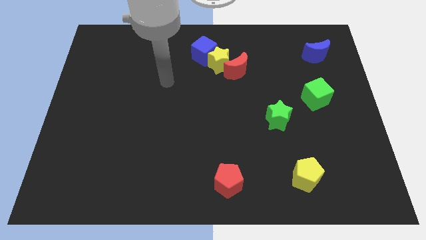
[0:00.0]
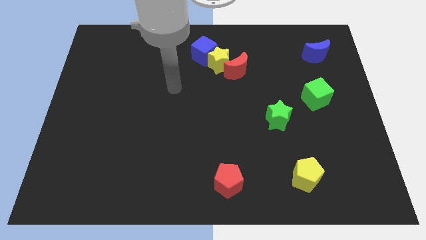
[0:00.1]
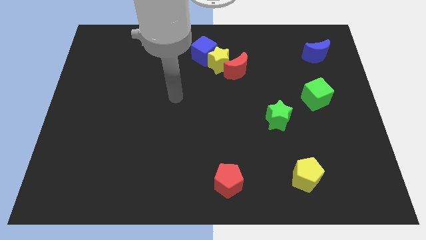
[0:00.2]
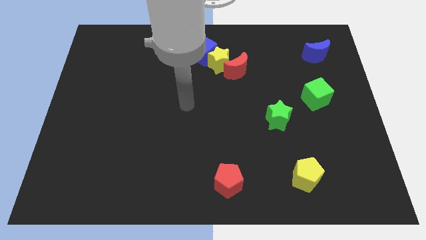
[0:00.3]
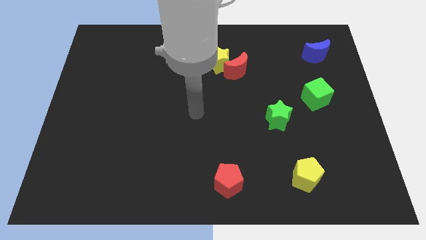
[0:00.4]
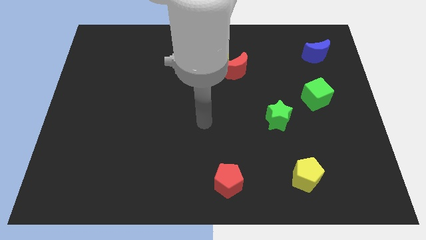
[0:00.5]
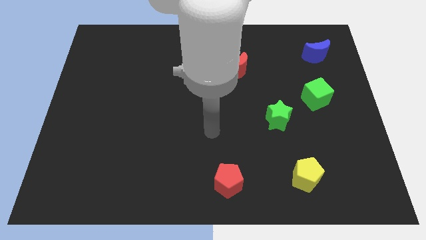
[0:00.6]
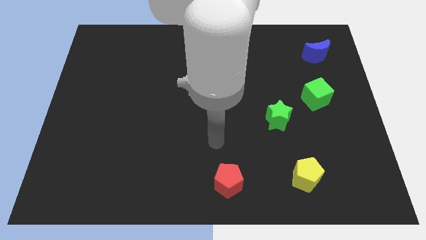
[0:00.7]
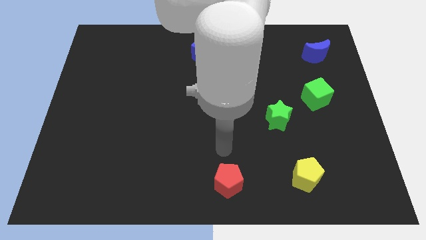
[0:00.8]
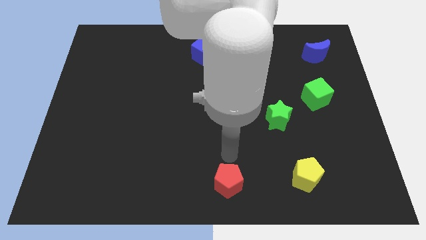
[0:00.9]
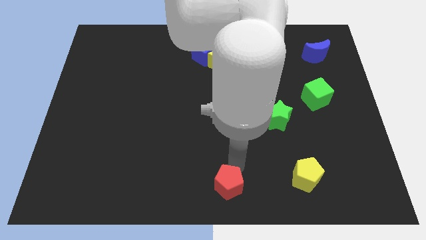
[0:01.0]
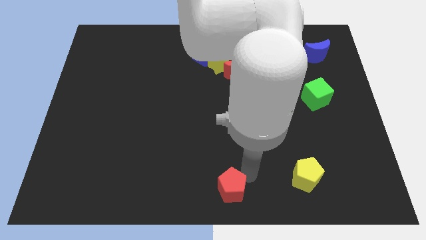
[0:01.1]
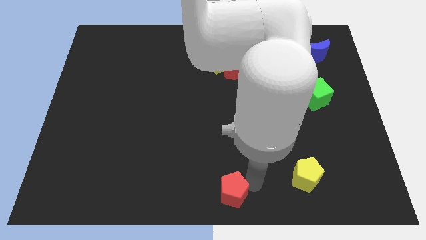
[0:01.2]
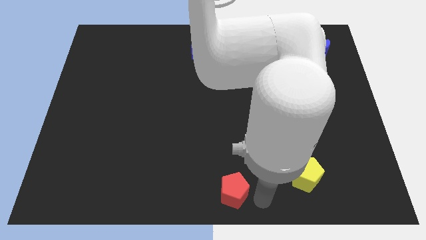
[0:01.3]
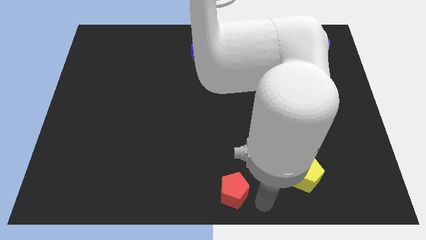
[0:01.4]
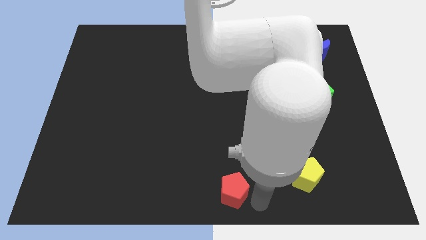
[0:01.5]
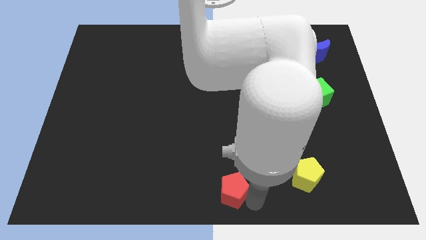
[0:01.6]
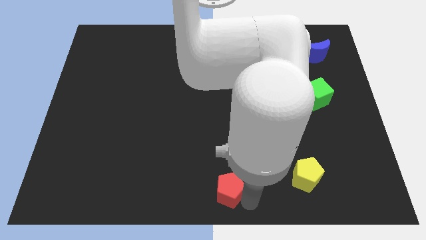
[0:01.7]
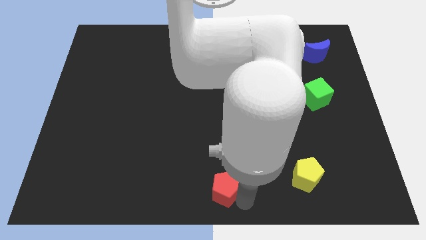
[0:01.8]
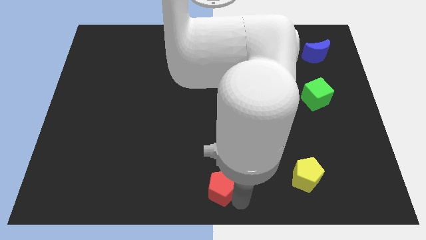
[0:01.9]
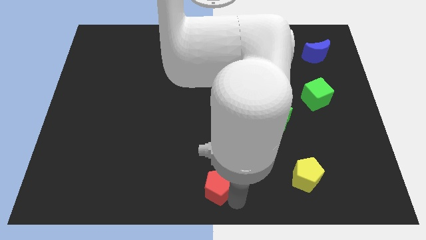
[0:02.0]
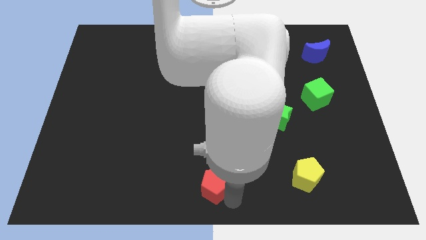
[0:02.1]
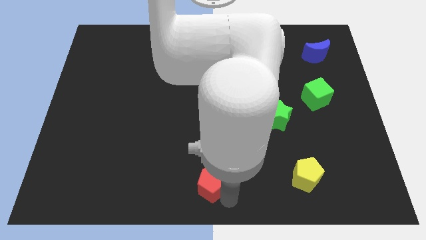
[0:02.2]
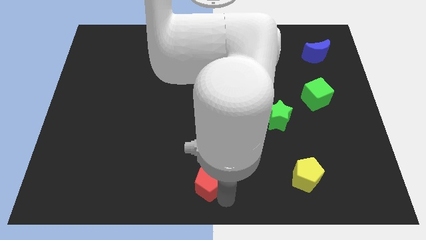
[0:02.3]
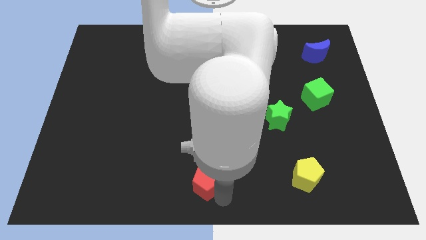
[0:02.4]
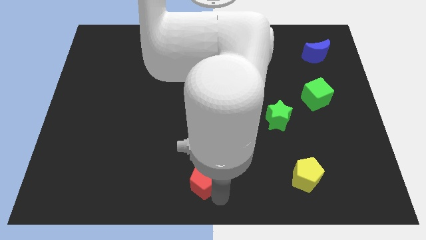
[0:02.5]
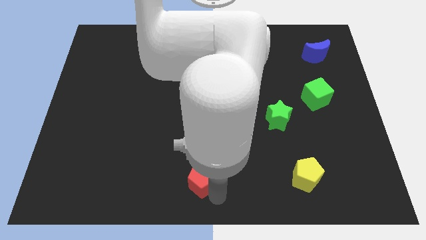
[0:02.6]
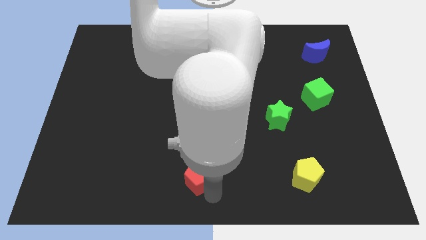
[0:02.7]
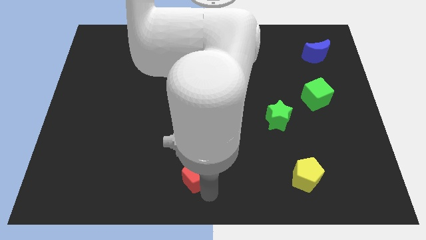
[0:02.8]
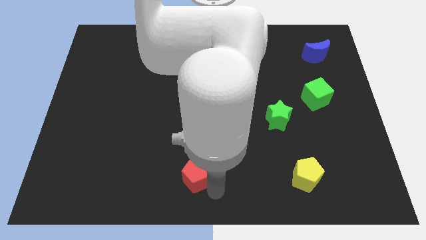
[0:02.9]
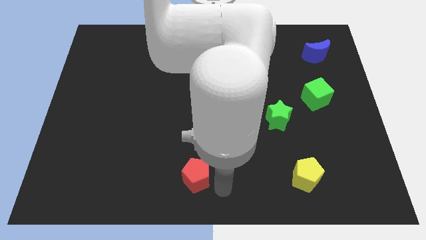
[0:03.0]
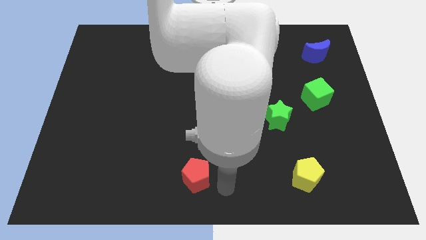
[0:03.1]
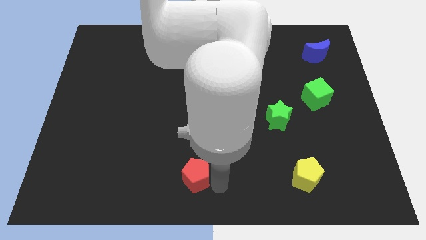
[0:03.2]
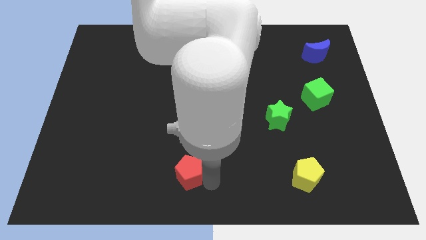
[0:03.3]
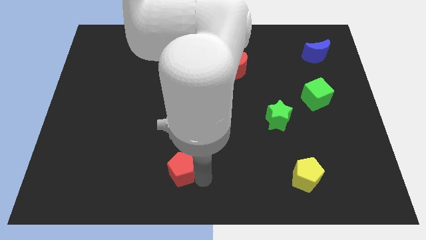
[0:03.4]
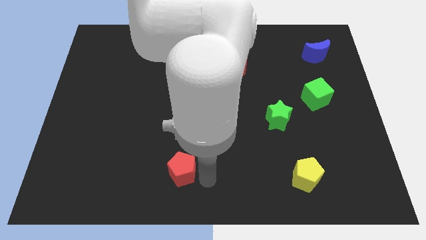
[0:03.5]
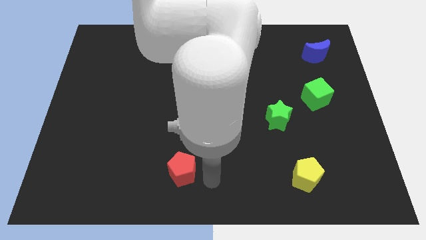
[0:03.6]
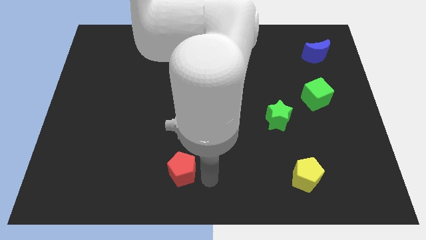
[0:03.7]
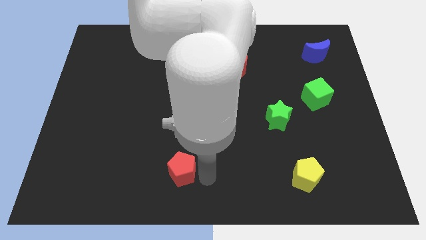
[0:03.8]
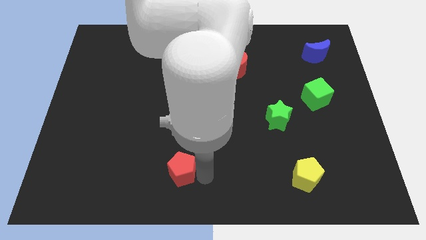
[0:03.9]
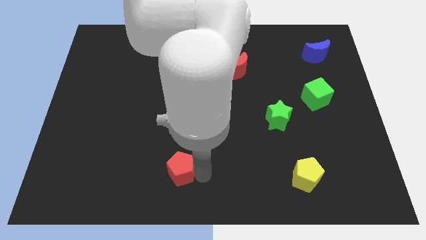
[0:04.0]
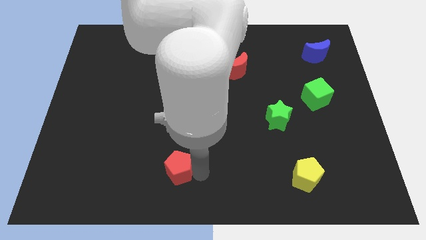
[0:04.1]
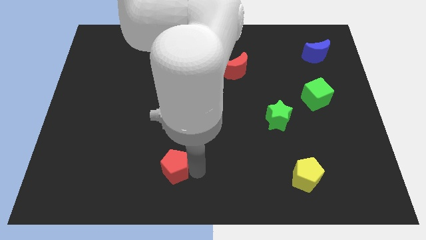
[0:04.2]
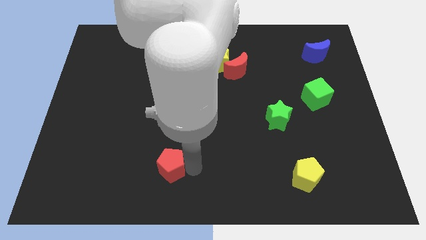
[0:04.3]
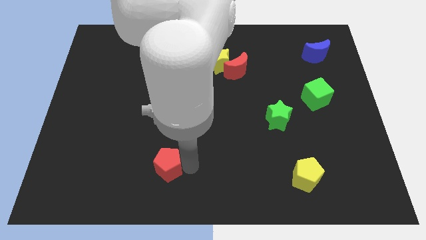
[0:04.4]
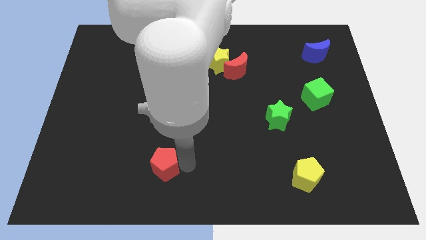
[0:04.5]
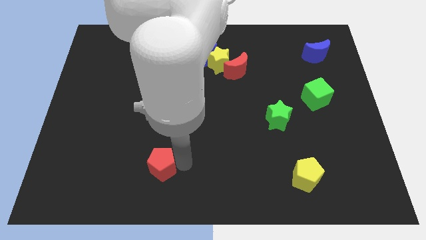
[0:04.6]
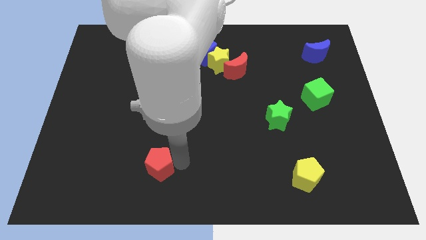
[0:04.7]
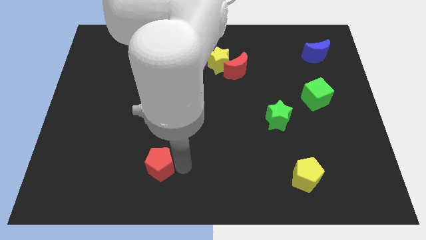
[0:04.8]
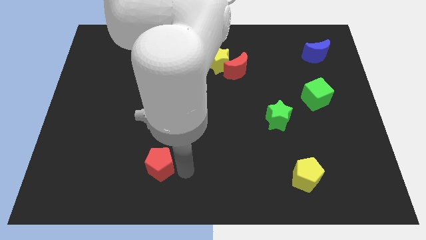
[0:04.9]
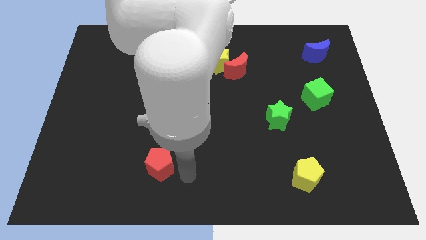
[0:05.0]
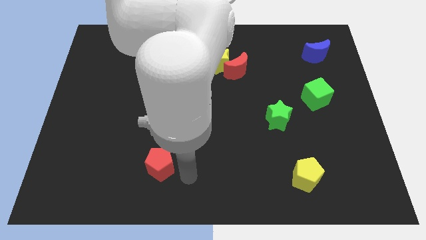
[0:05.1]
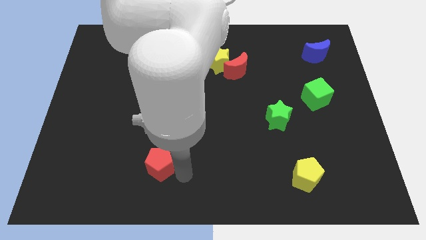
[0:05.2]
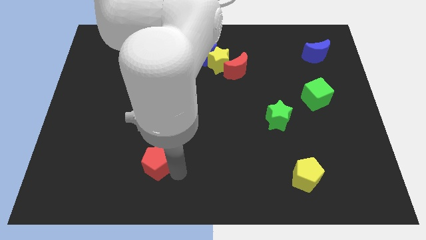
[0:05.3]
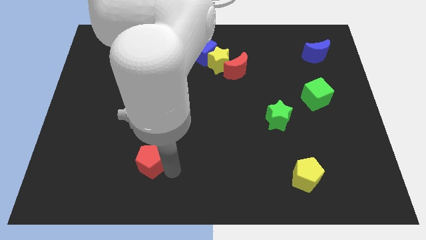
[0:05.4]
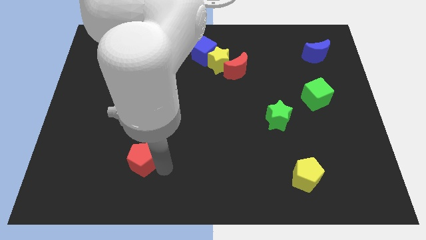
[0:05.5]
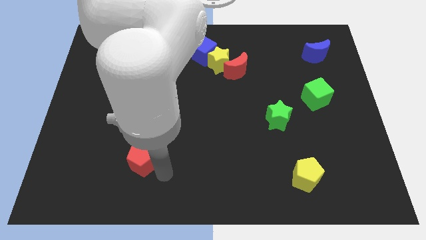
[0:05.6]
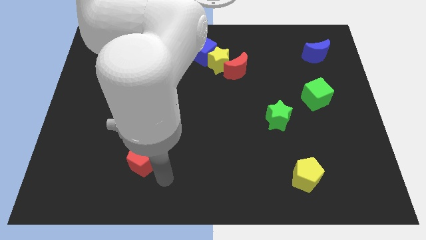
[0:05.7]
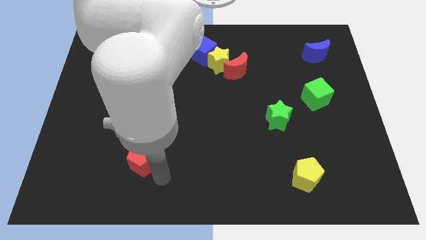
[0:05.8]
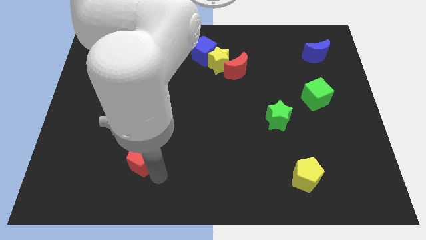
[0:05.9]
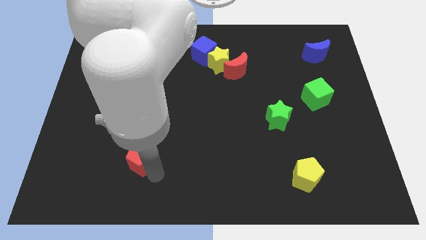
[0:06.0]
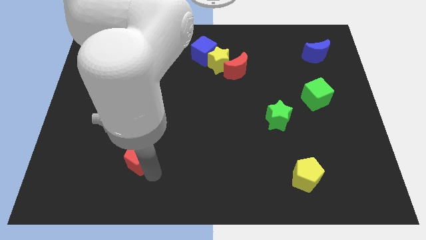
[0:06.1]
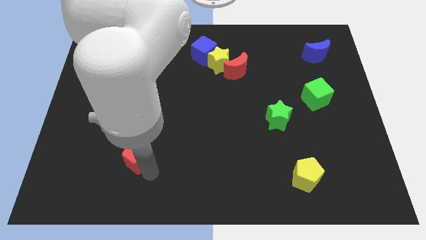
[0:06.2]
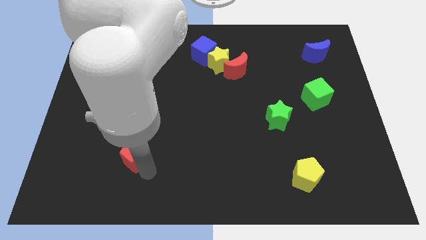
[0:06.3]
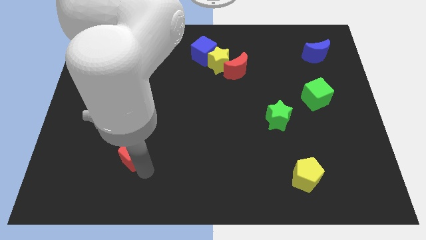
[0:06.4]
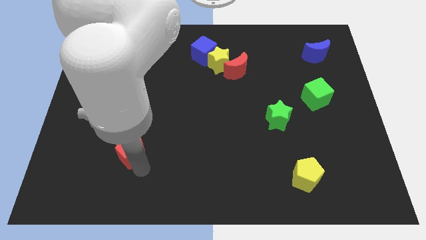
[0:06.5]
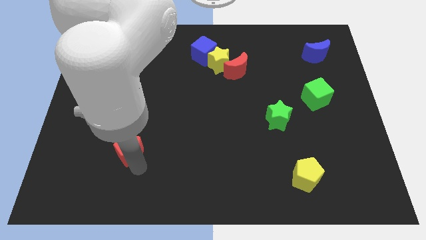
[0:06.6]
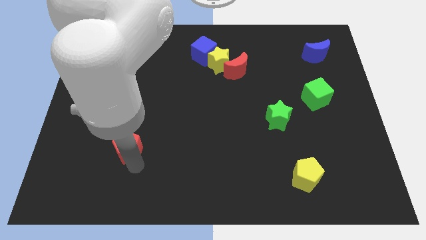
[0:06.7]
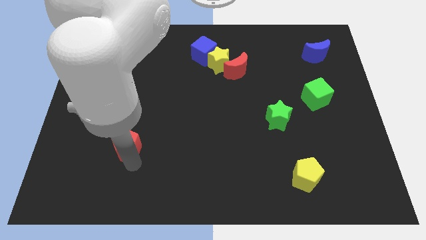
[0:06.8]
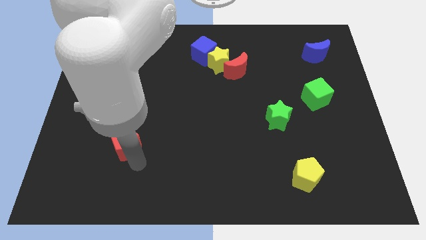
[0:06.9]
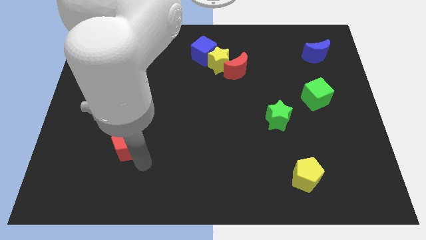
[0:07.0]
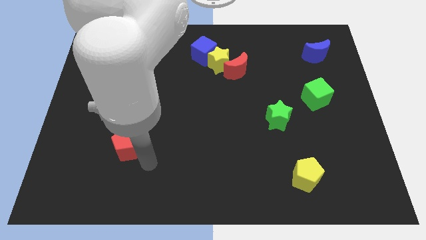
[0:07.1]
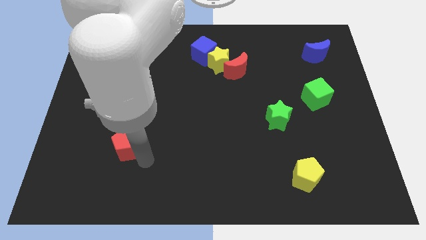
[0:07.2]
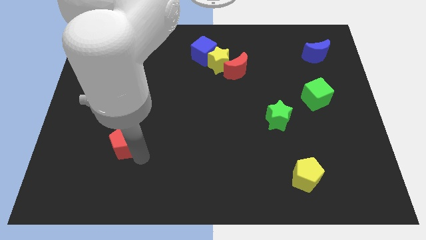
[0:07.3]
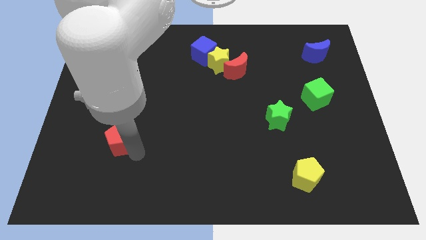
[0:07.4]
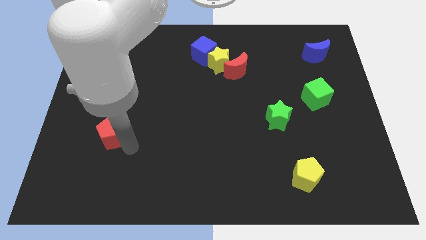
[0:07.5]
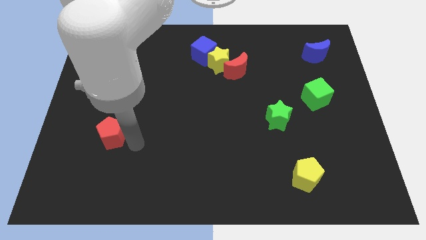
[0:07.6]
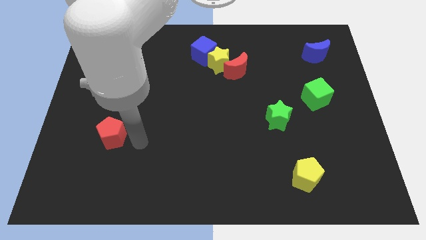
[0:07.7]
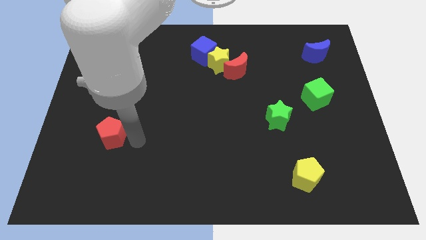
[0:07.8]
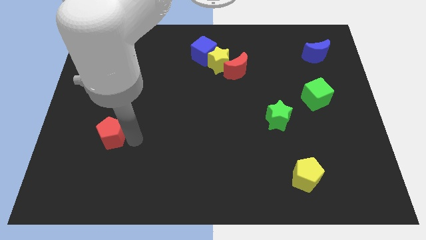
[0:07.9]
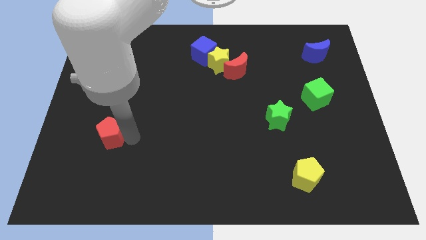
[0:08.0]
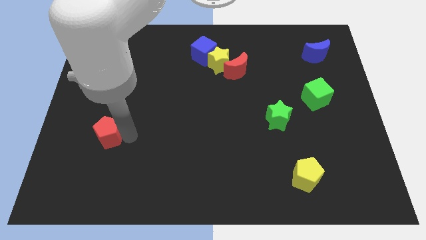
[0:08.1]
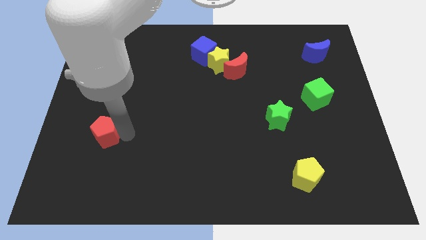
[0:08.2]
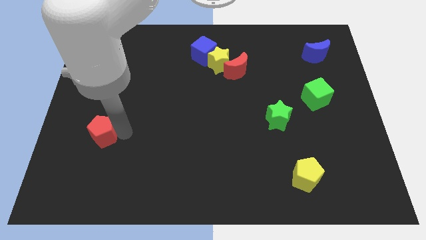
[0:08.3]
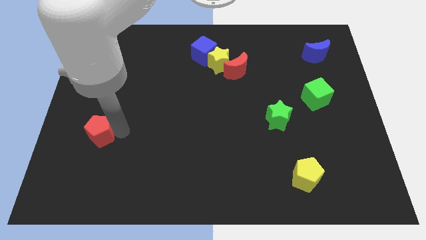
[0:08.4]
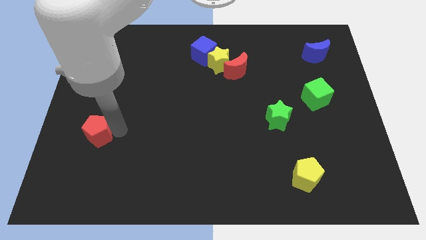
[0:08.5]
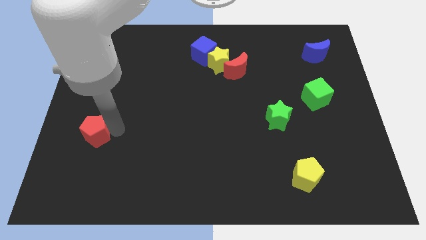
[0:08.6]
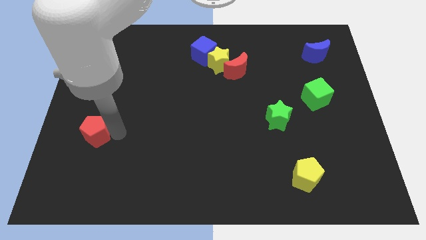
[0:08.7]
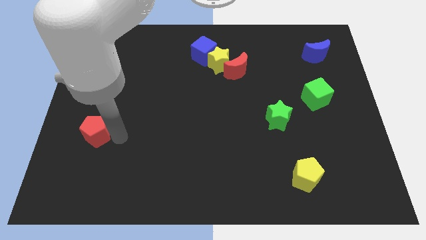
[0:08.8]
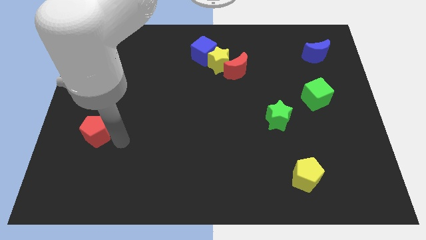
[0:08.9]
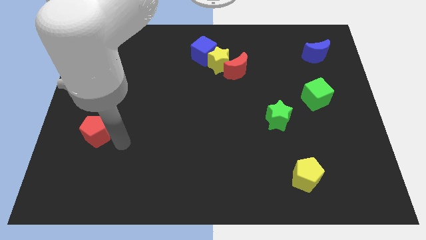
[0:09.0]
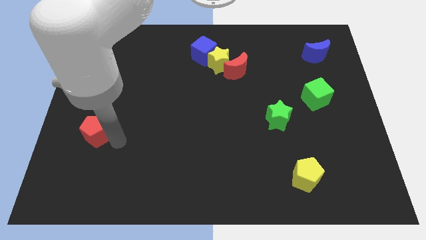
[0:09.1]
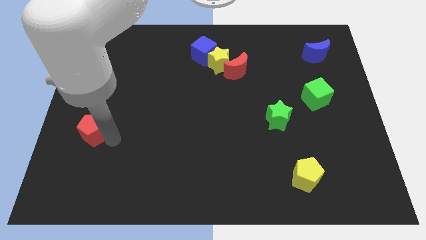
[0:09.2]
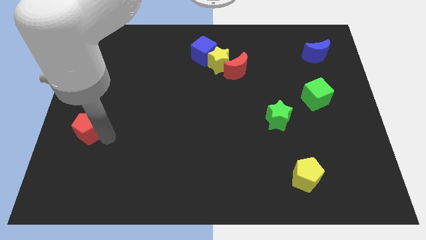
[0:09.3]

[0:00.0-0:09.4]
slide the red pentagon to the center left
